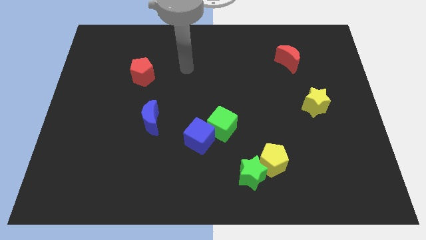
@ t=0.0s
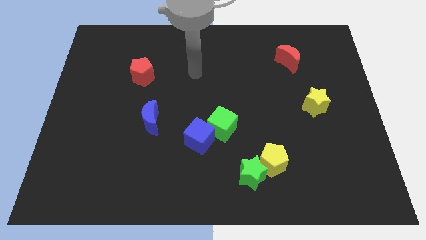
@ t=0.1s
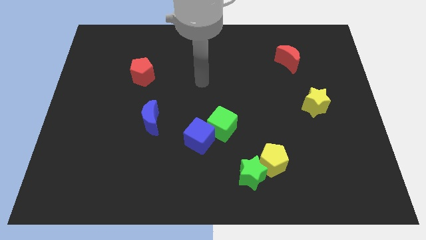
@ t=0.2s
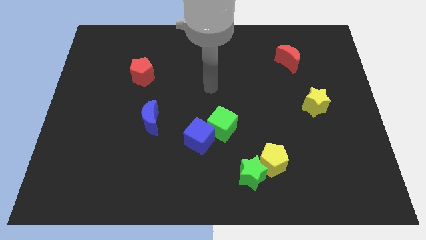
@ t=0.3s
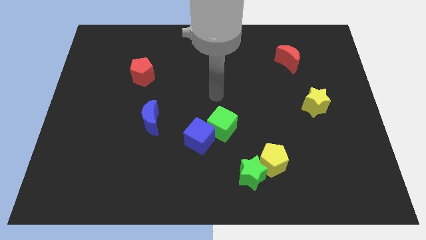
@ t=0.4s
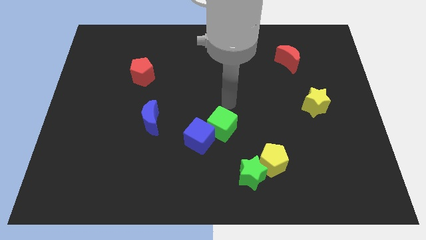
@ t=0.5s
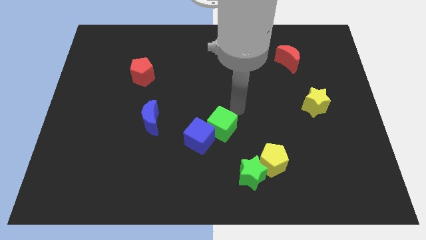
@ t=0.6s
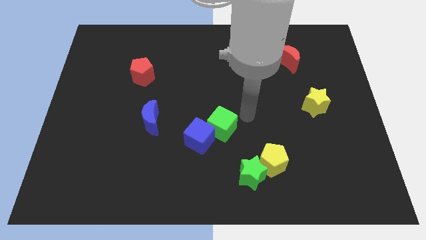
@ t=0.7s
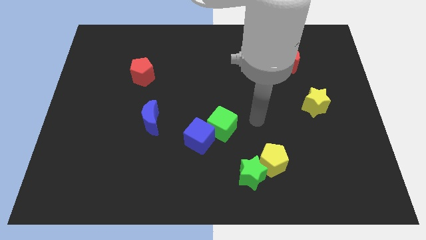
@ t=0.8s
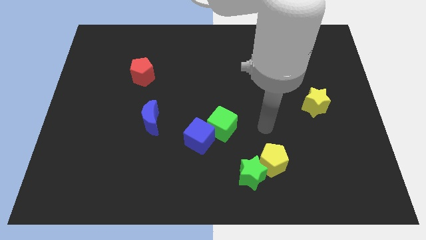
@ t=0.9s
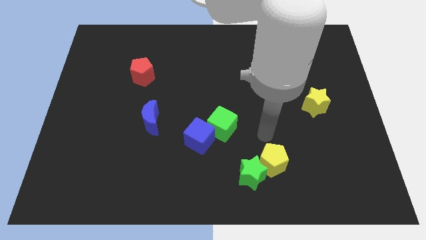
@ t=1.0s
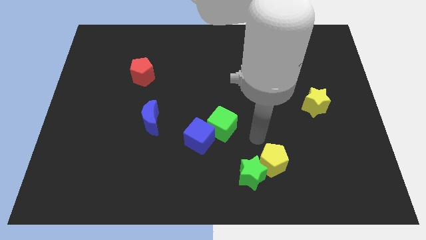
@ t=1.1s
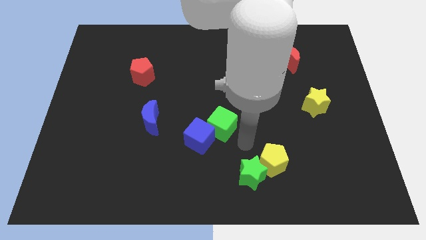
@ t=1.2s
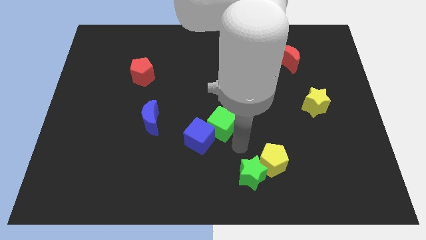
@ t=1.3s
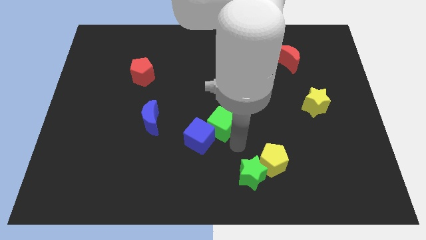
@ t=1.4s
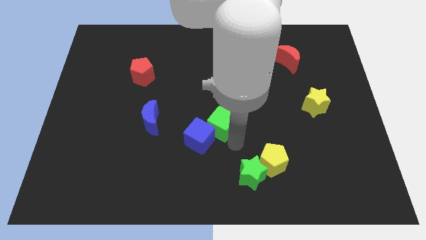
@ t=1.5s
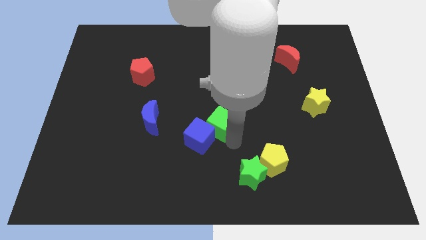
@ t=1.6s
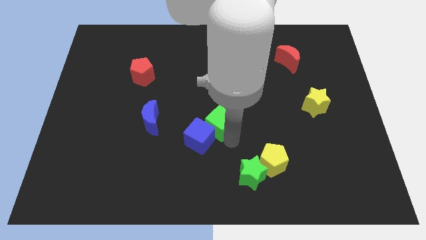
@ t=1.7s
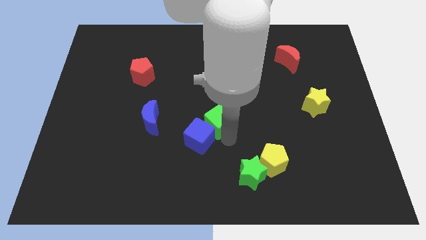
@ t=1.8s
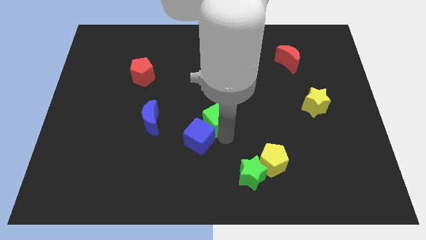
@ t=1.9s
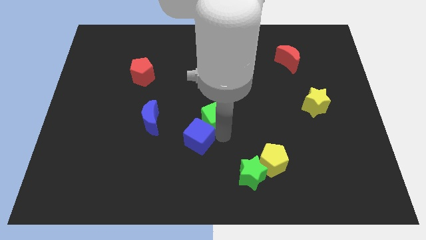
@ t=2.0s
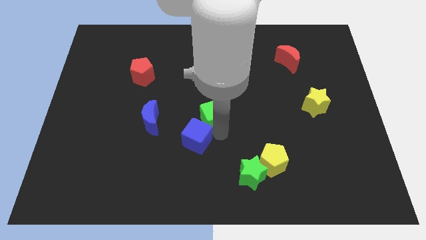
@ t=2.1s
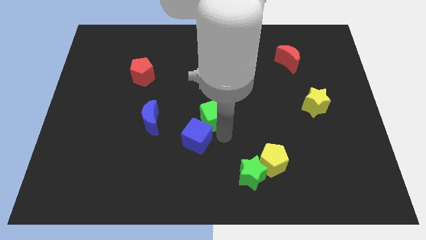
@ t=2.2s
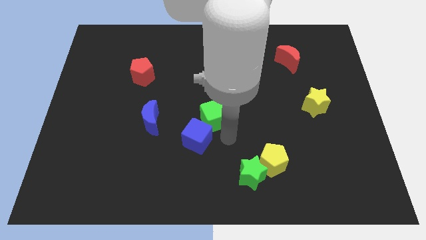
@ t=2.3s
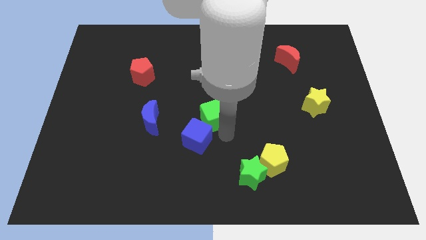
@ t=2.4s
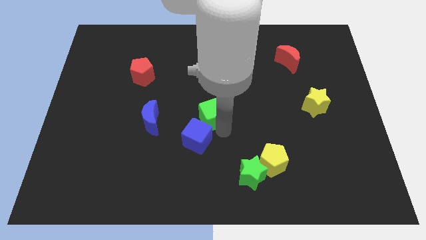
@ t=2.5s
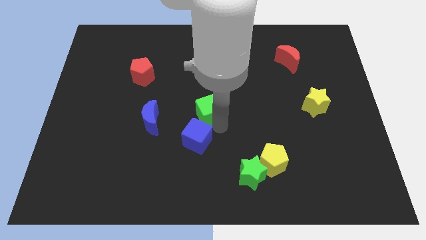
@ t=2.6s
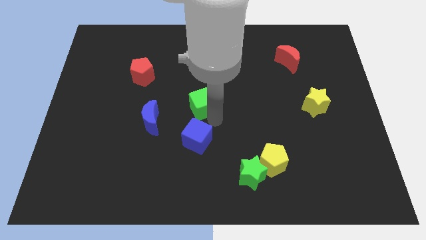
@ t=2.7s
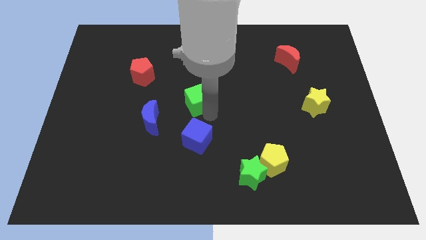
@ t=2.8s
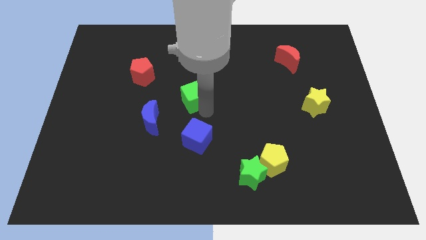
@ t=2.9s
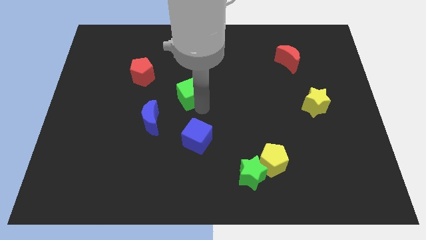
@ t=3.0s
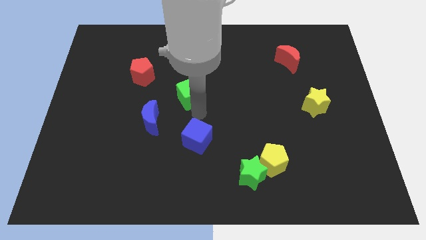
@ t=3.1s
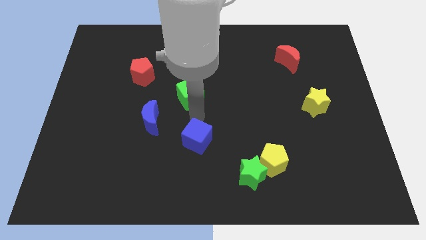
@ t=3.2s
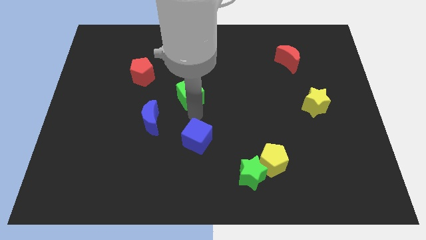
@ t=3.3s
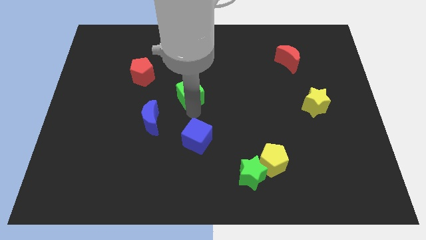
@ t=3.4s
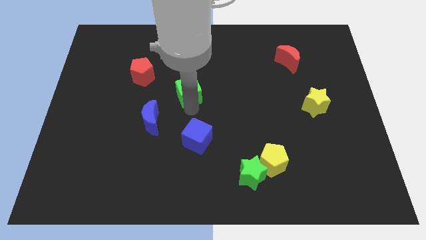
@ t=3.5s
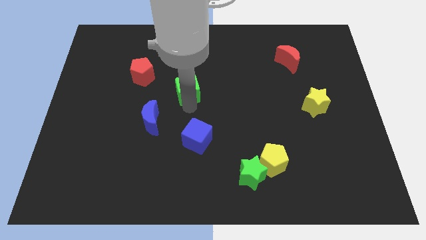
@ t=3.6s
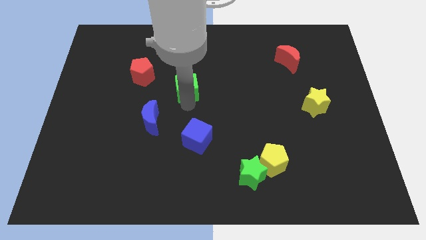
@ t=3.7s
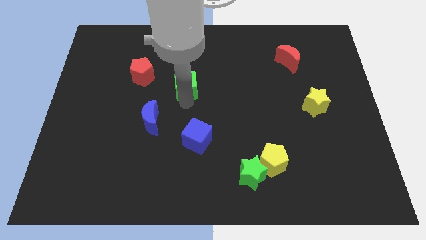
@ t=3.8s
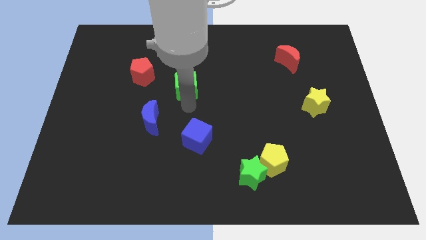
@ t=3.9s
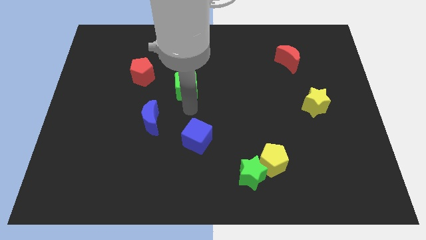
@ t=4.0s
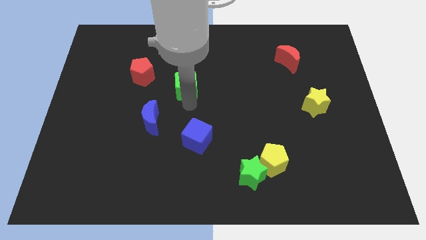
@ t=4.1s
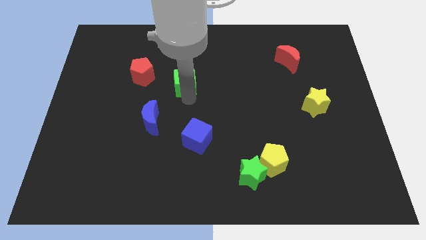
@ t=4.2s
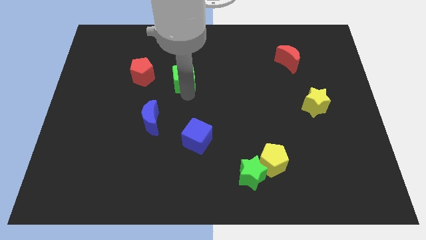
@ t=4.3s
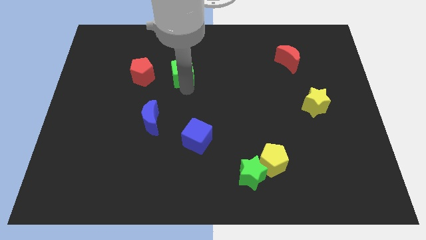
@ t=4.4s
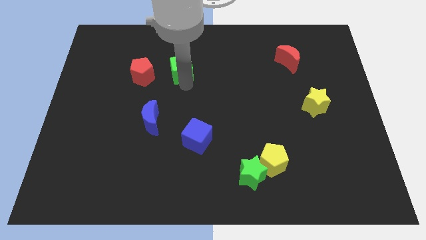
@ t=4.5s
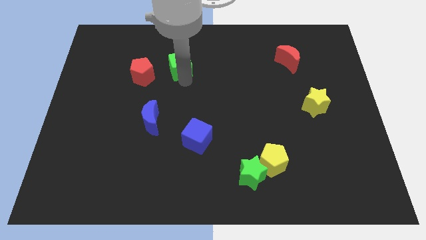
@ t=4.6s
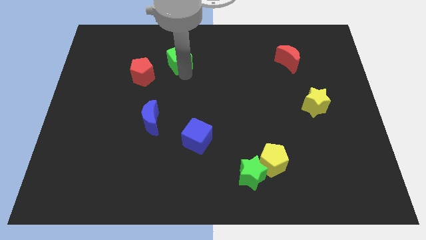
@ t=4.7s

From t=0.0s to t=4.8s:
move the green cube diagonally up and left

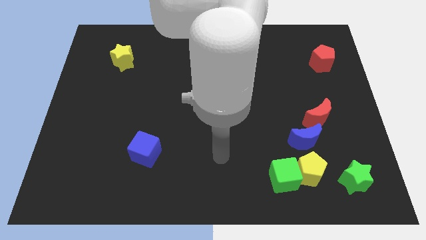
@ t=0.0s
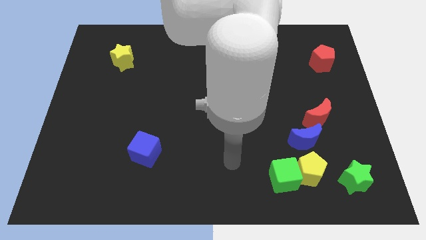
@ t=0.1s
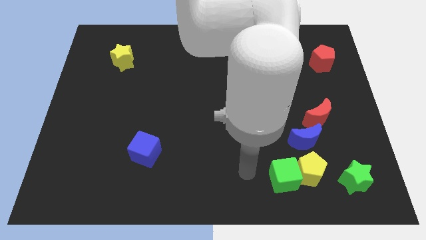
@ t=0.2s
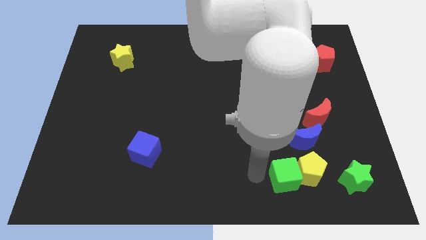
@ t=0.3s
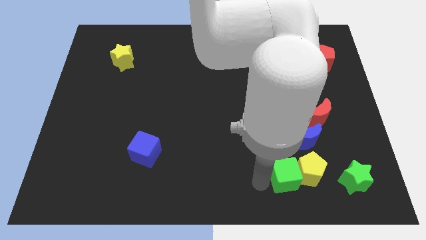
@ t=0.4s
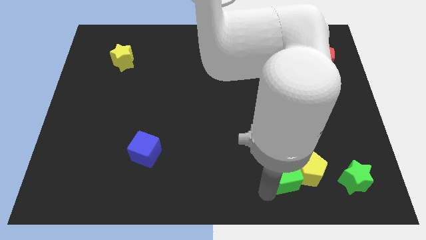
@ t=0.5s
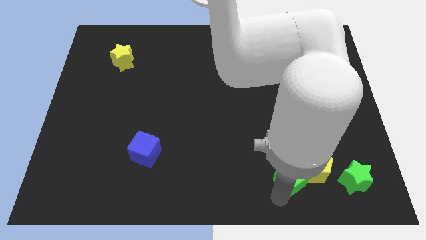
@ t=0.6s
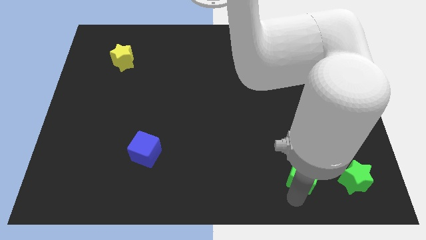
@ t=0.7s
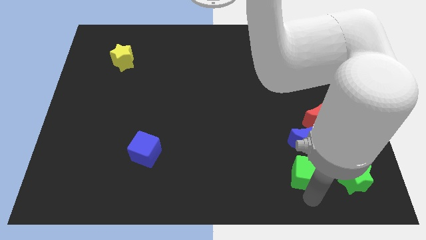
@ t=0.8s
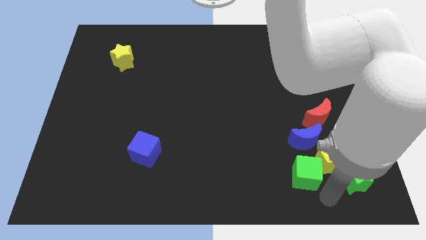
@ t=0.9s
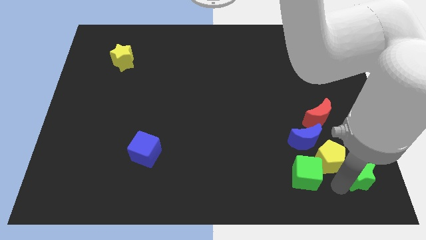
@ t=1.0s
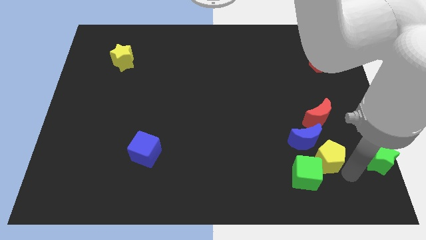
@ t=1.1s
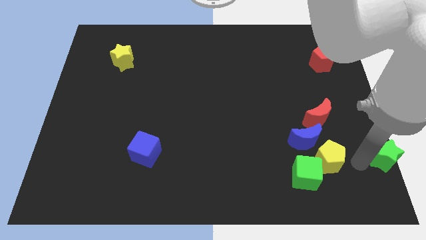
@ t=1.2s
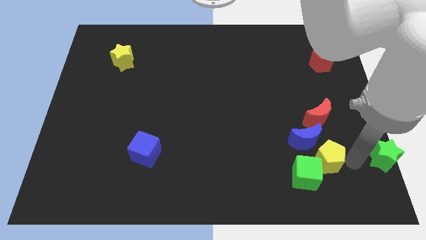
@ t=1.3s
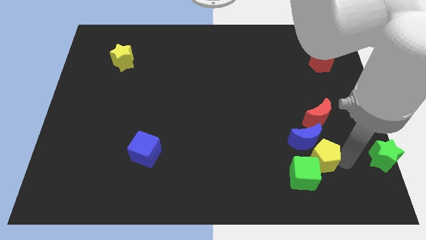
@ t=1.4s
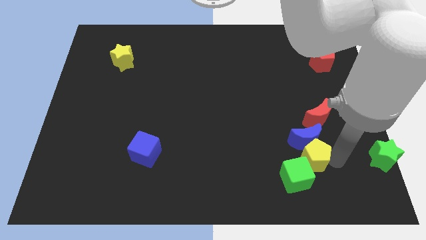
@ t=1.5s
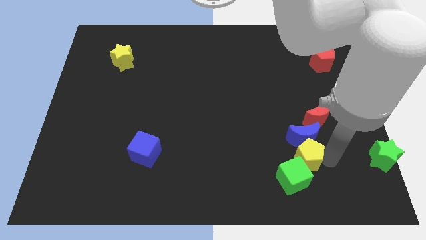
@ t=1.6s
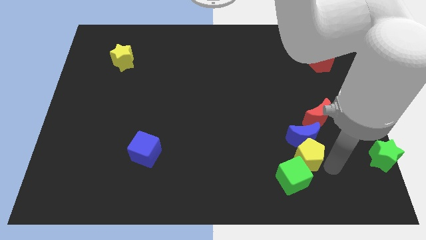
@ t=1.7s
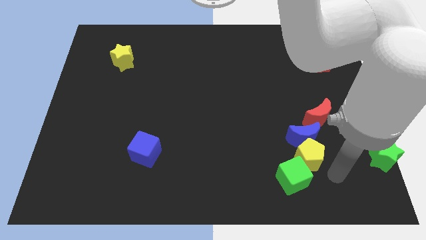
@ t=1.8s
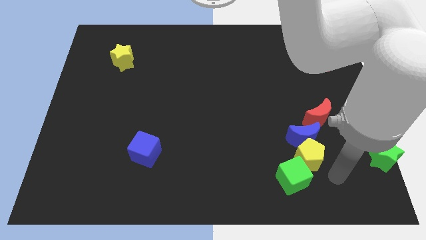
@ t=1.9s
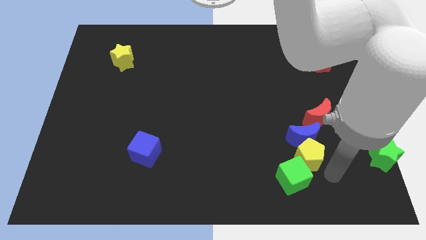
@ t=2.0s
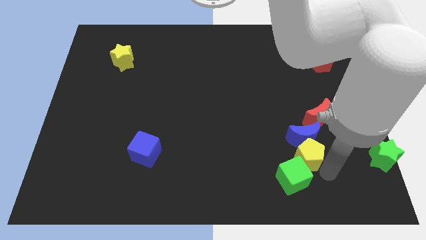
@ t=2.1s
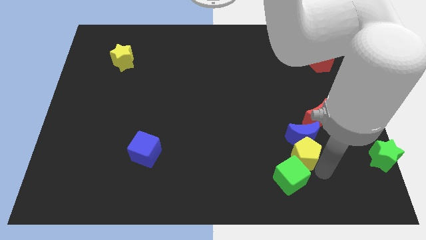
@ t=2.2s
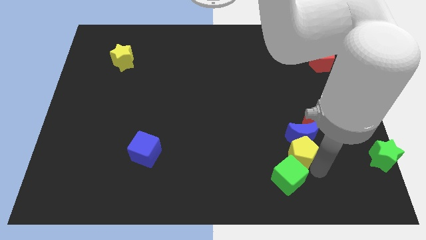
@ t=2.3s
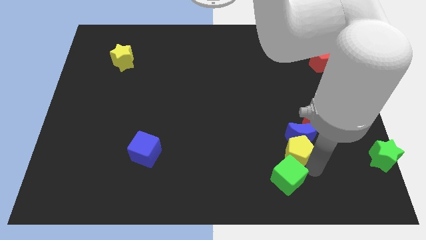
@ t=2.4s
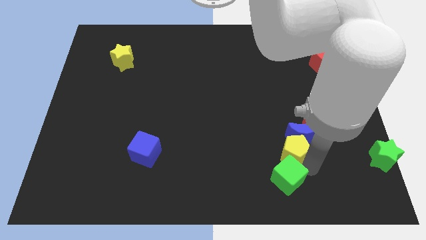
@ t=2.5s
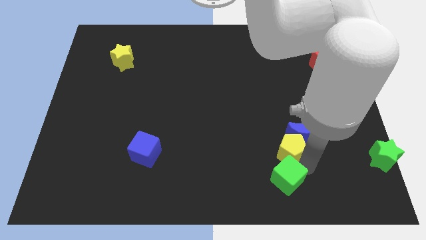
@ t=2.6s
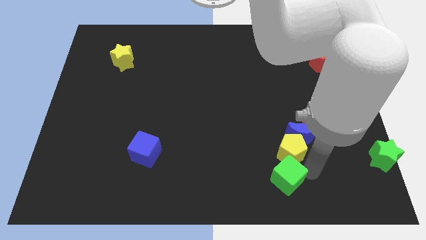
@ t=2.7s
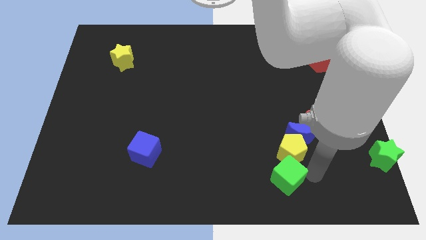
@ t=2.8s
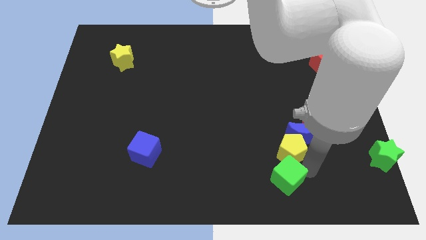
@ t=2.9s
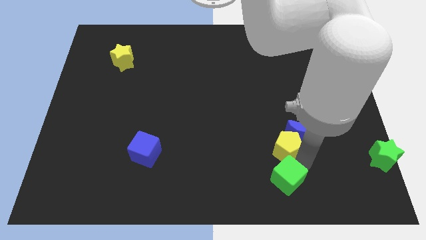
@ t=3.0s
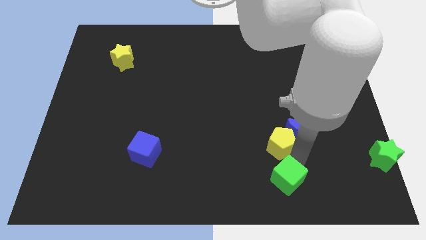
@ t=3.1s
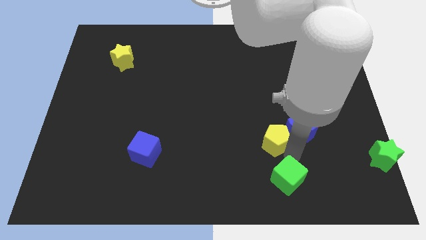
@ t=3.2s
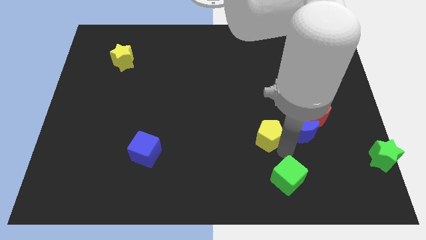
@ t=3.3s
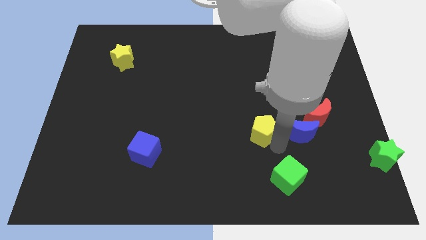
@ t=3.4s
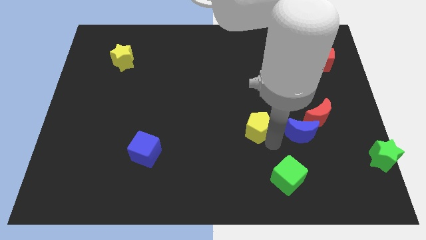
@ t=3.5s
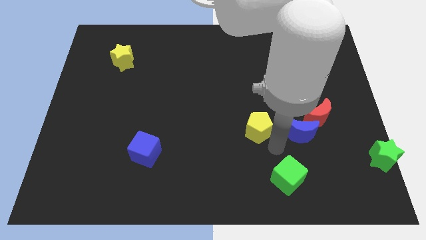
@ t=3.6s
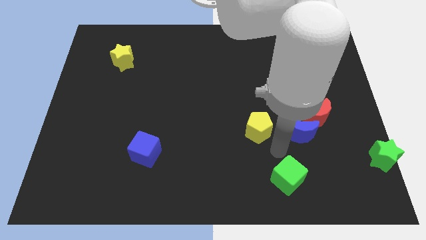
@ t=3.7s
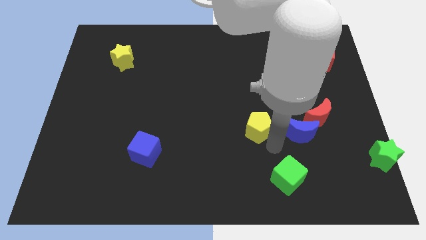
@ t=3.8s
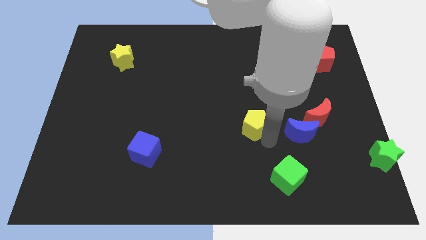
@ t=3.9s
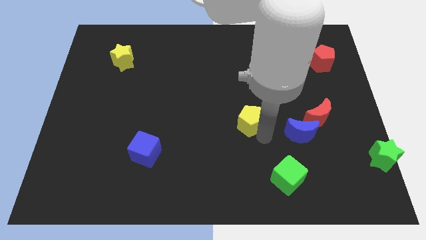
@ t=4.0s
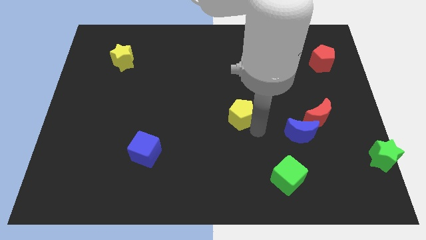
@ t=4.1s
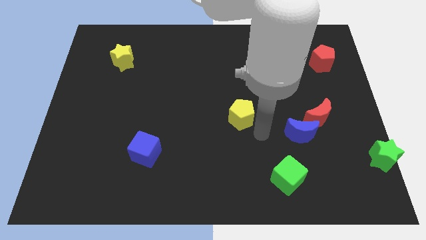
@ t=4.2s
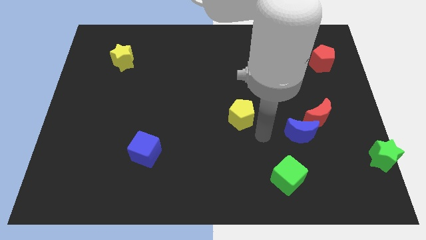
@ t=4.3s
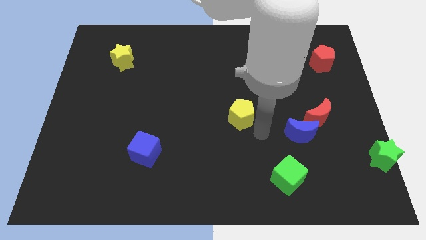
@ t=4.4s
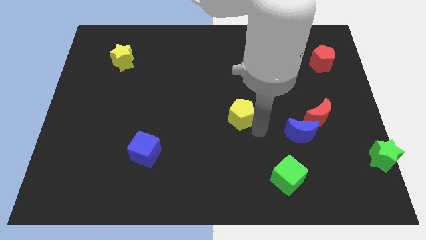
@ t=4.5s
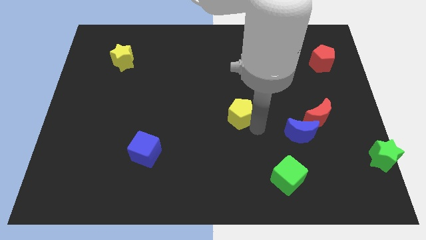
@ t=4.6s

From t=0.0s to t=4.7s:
push the yellow pentagon diagonally upwards and left
